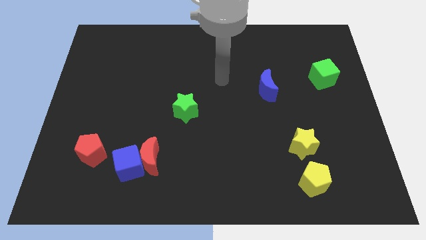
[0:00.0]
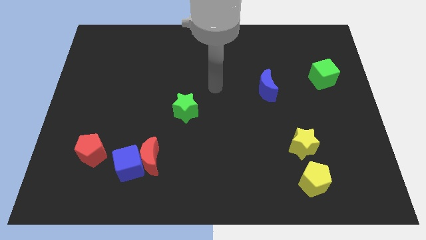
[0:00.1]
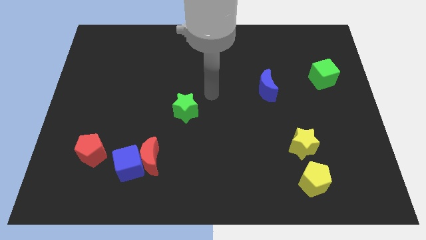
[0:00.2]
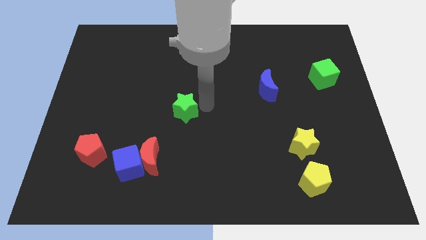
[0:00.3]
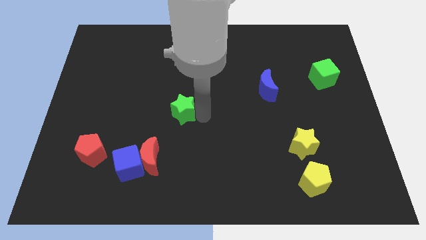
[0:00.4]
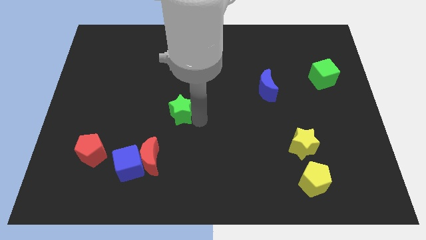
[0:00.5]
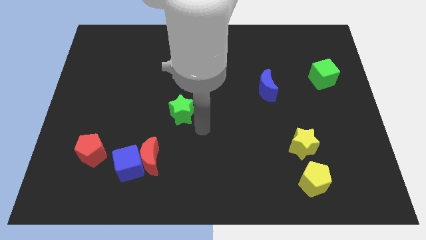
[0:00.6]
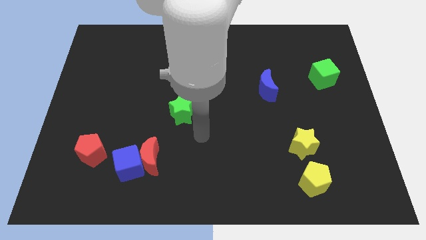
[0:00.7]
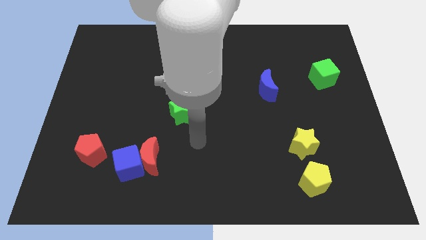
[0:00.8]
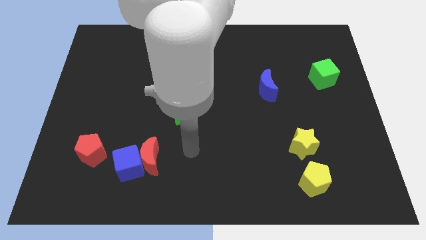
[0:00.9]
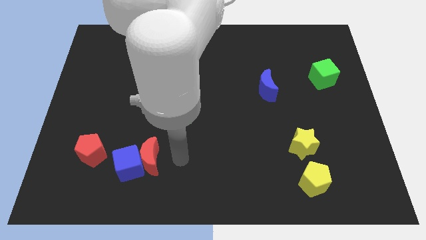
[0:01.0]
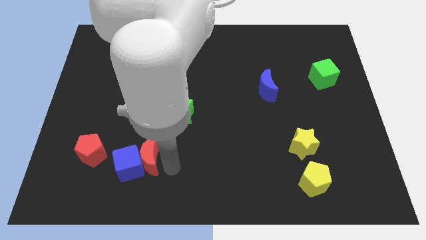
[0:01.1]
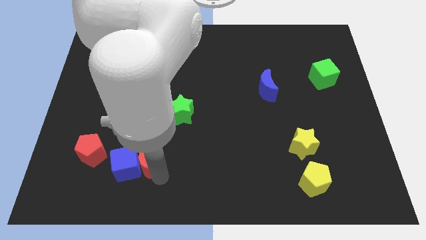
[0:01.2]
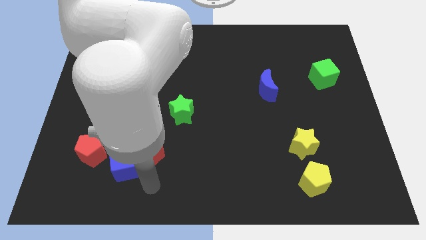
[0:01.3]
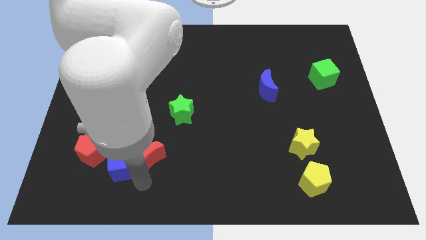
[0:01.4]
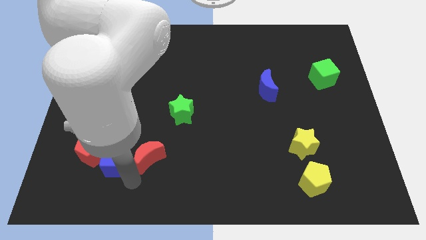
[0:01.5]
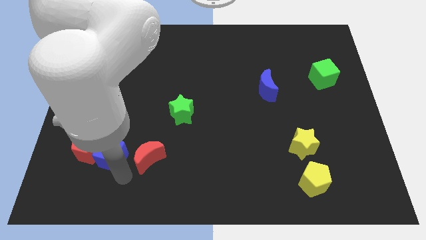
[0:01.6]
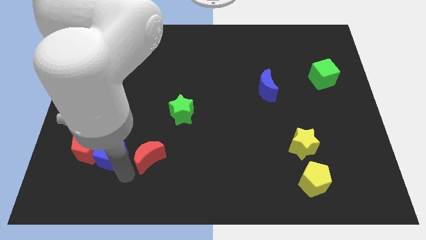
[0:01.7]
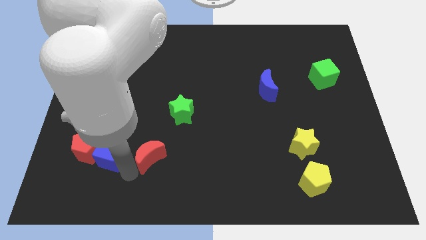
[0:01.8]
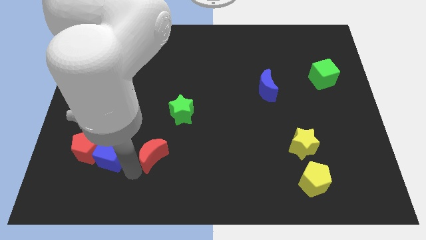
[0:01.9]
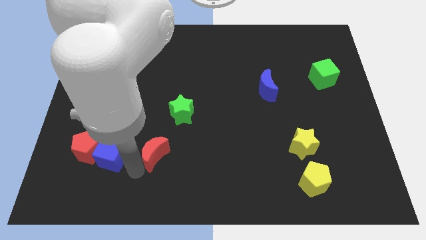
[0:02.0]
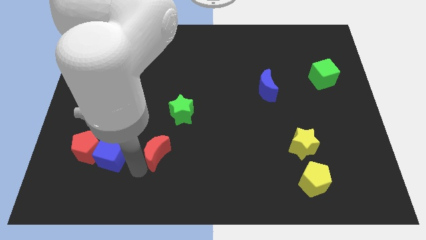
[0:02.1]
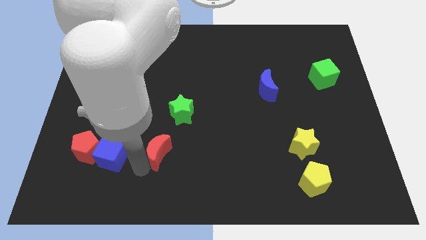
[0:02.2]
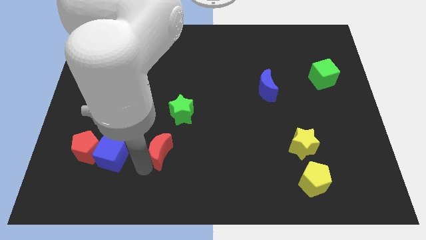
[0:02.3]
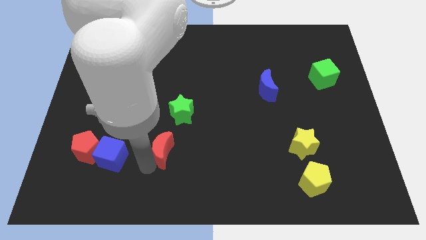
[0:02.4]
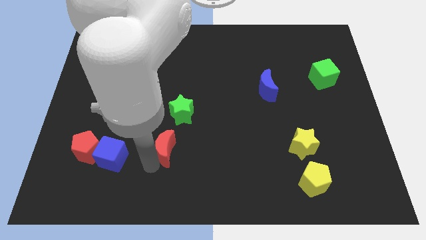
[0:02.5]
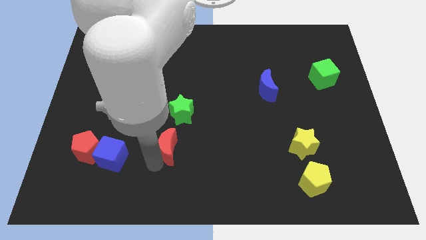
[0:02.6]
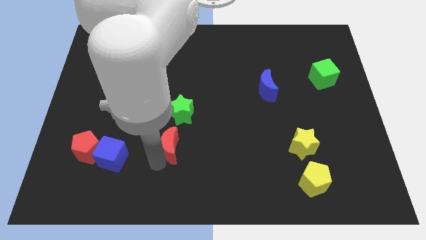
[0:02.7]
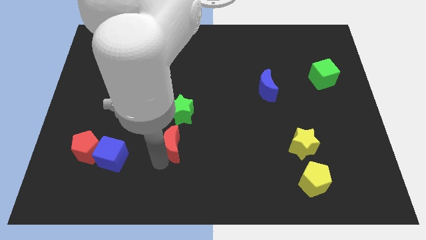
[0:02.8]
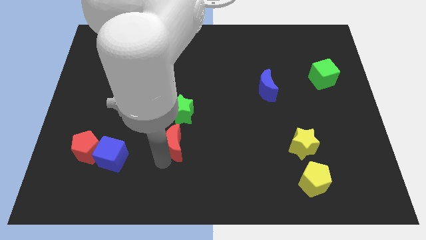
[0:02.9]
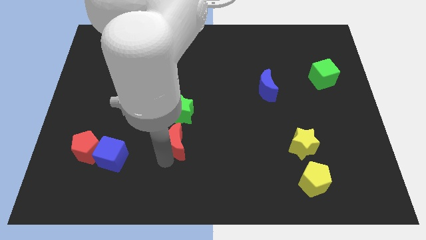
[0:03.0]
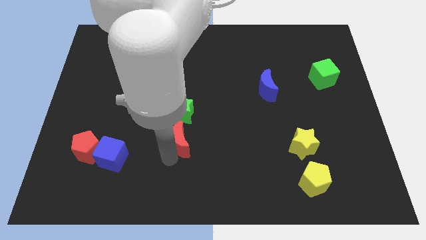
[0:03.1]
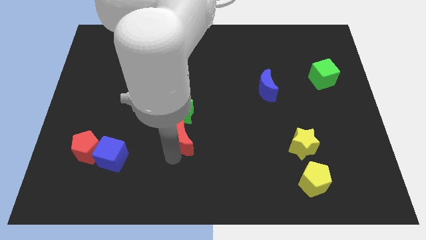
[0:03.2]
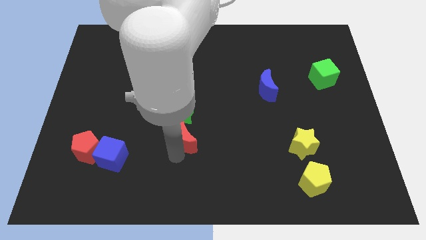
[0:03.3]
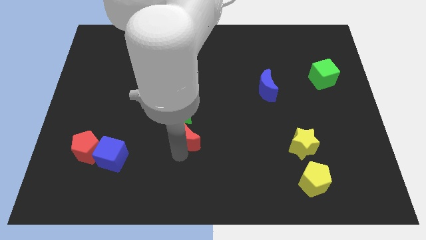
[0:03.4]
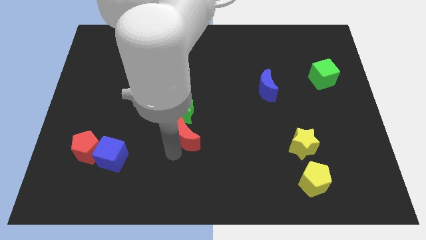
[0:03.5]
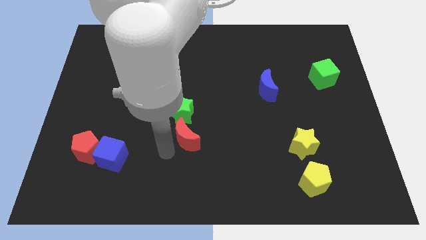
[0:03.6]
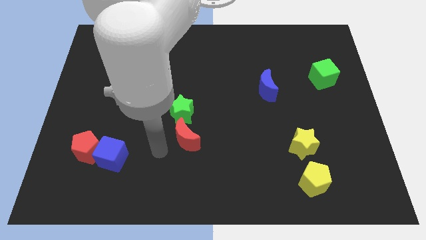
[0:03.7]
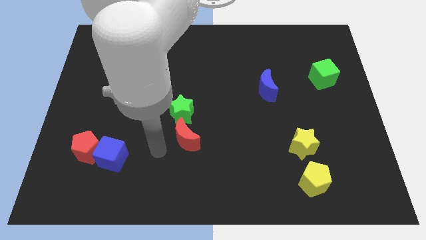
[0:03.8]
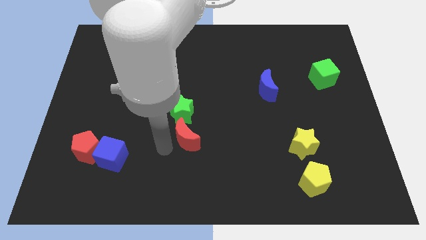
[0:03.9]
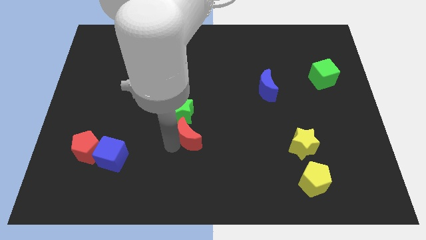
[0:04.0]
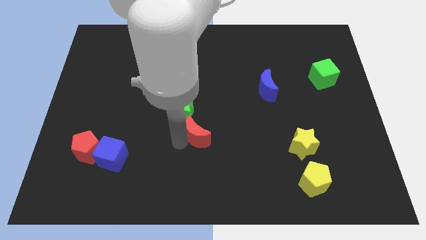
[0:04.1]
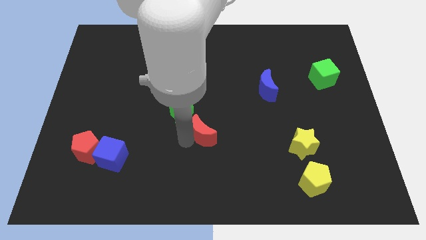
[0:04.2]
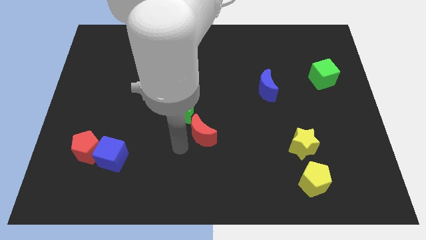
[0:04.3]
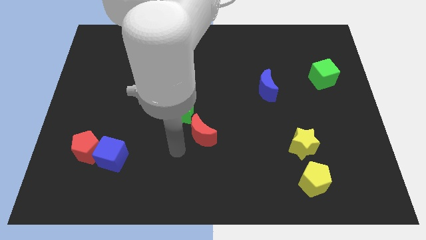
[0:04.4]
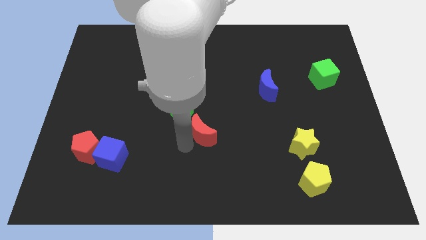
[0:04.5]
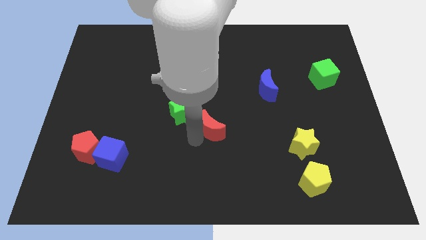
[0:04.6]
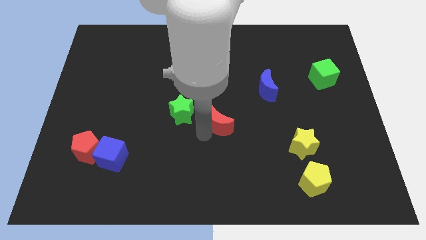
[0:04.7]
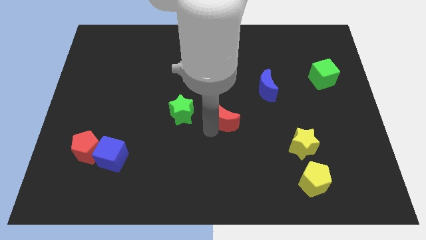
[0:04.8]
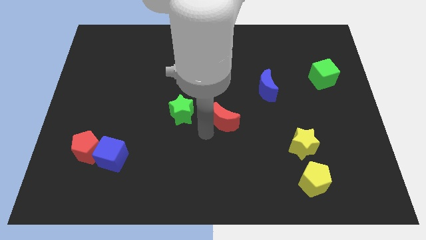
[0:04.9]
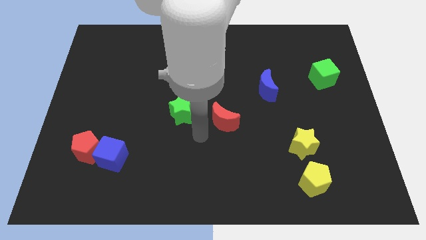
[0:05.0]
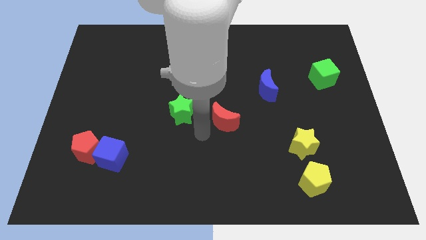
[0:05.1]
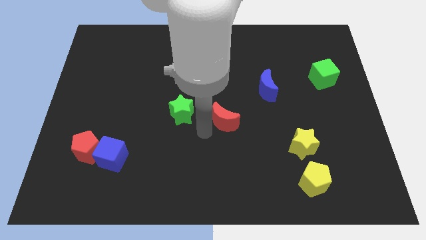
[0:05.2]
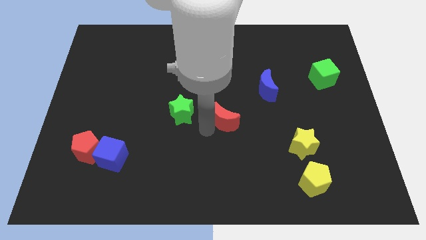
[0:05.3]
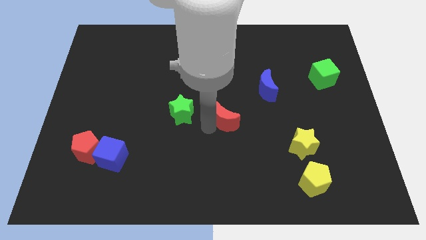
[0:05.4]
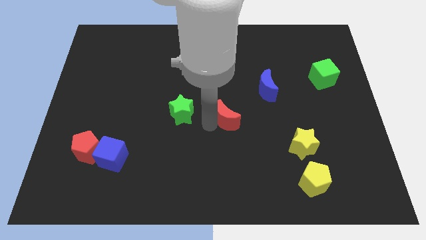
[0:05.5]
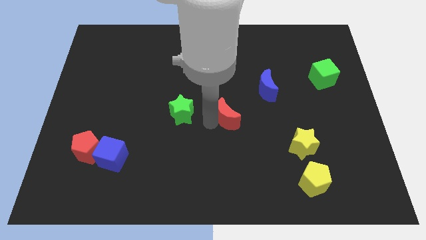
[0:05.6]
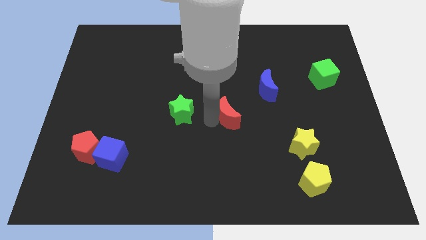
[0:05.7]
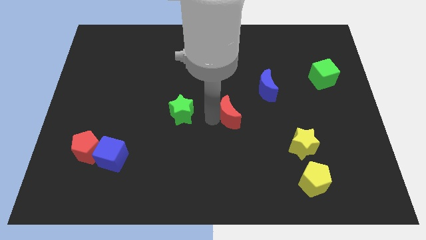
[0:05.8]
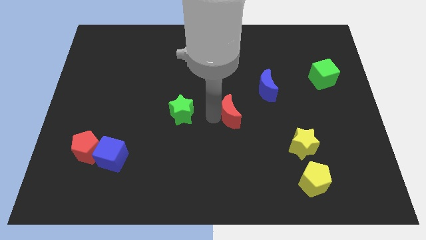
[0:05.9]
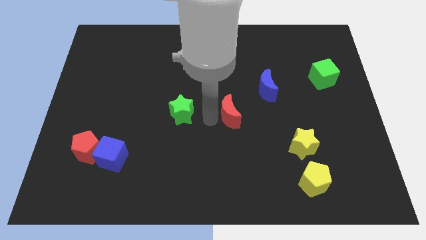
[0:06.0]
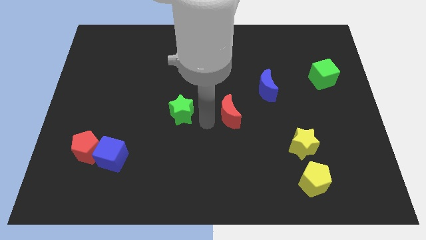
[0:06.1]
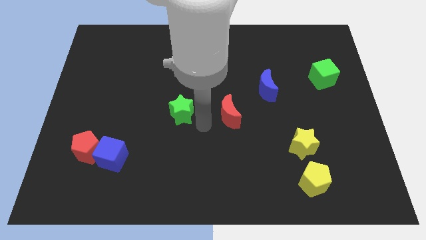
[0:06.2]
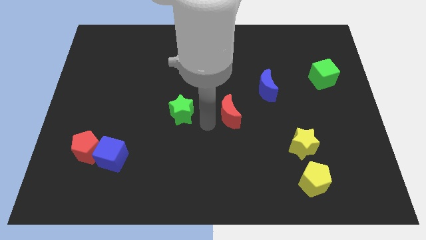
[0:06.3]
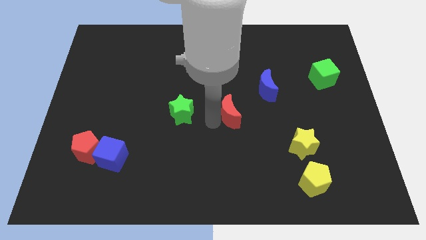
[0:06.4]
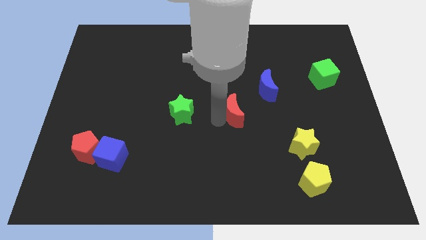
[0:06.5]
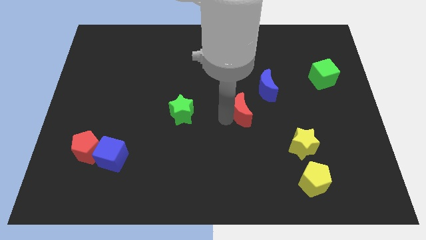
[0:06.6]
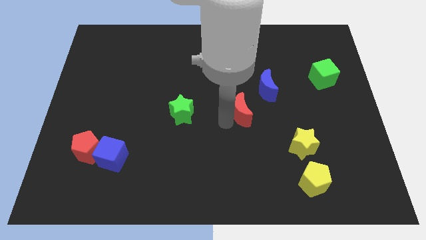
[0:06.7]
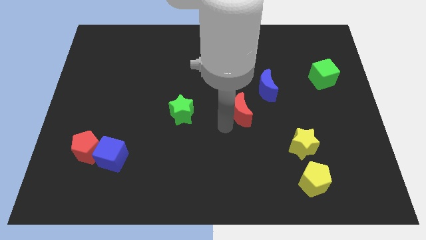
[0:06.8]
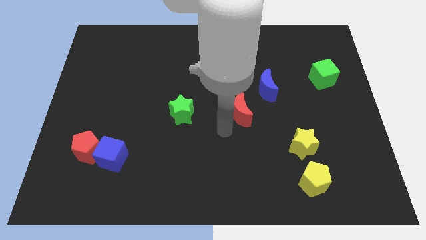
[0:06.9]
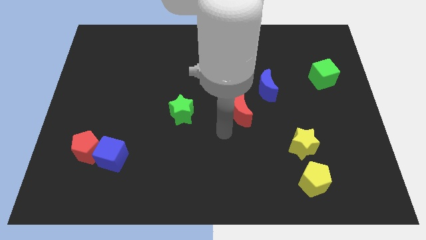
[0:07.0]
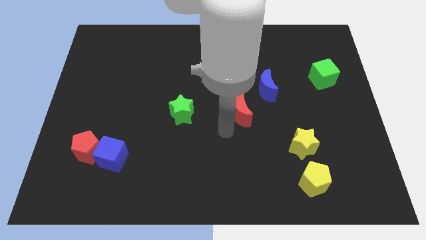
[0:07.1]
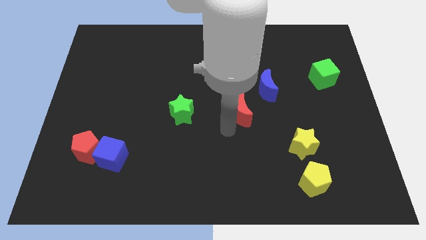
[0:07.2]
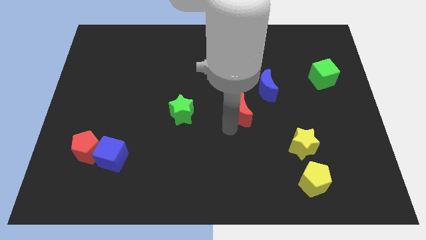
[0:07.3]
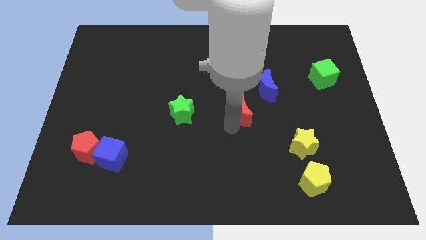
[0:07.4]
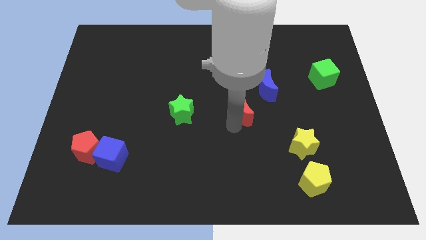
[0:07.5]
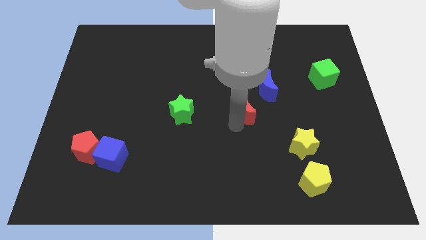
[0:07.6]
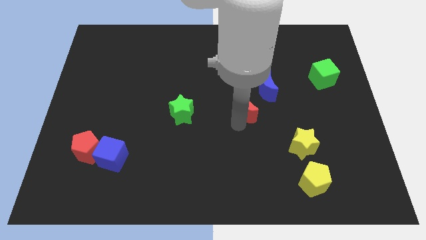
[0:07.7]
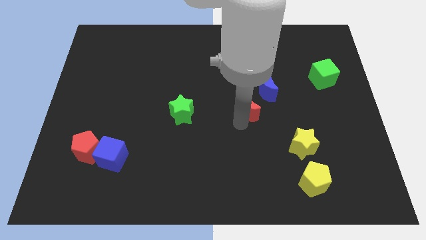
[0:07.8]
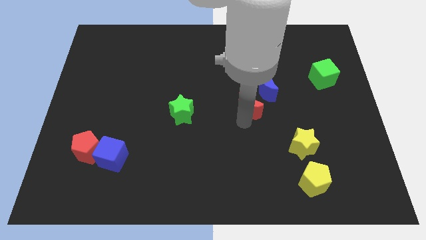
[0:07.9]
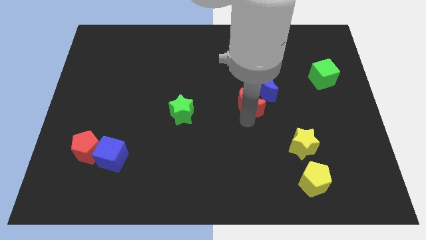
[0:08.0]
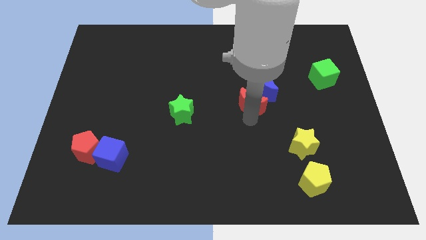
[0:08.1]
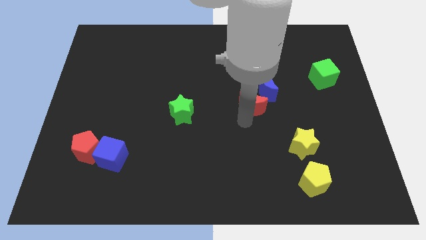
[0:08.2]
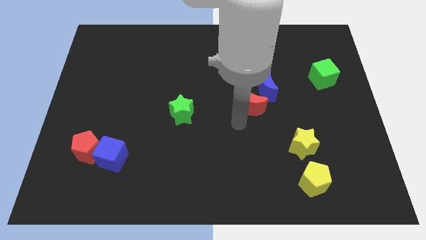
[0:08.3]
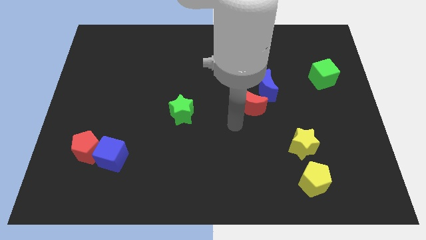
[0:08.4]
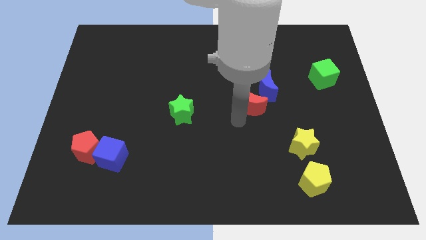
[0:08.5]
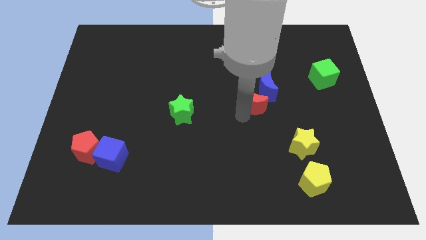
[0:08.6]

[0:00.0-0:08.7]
move the red moon to the blue moon
